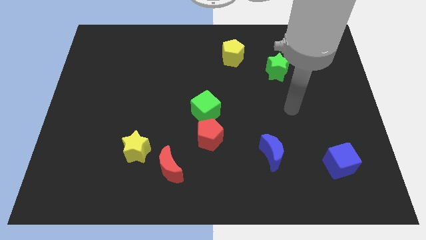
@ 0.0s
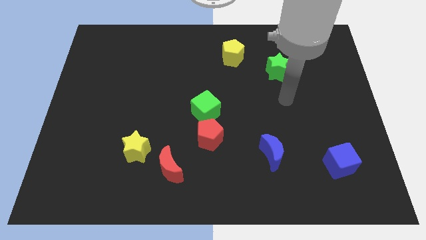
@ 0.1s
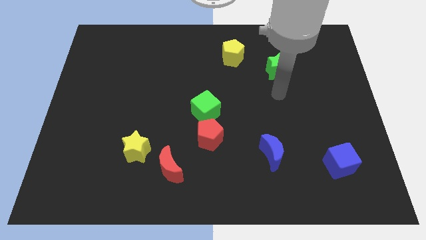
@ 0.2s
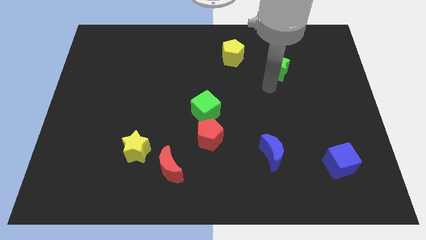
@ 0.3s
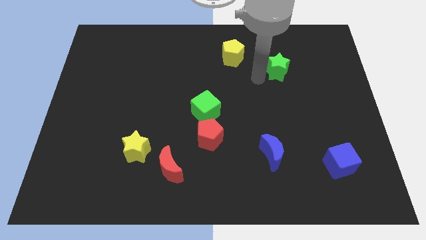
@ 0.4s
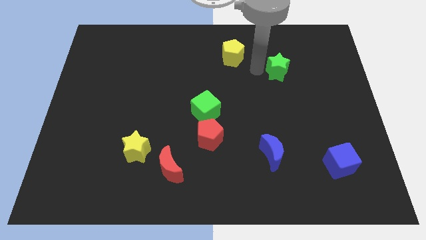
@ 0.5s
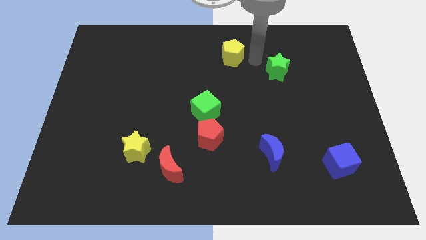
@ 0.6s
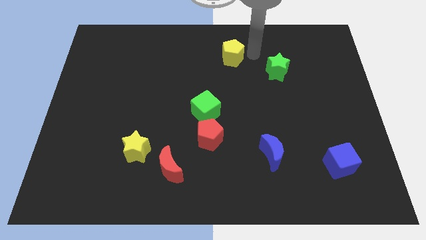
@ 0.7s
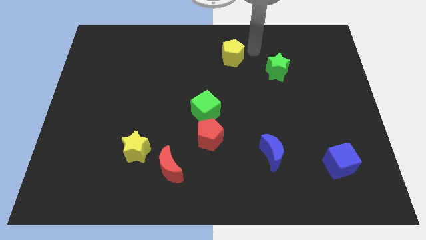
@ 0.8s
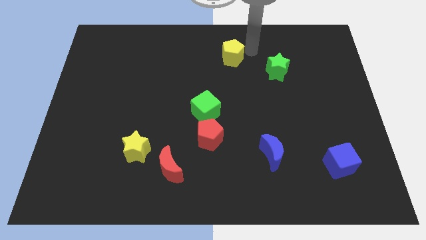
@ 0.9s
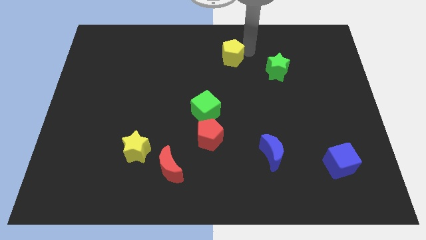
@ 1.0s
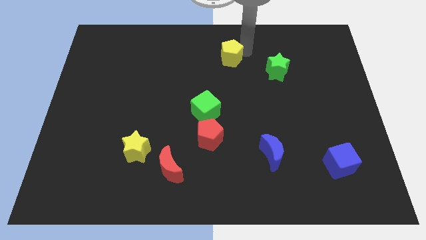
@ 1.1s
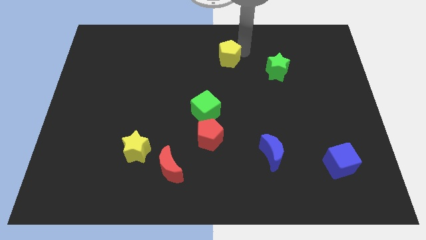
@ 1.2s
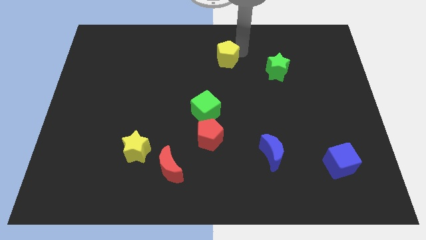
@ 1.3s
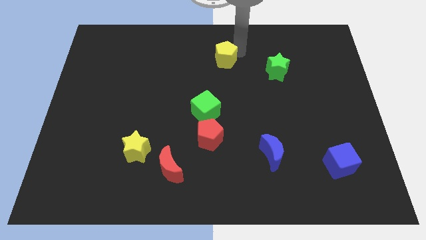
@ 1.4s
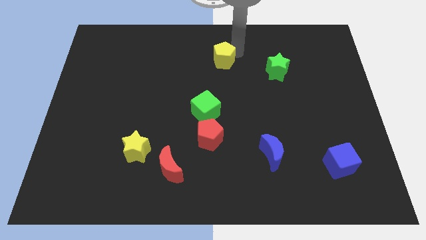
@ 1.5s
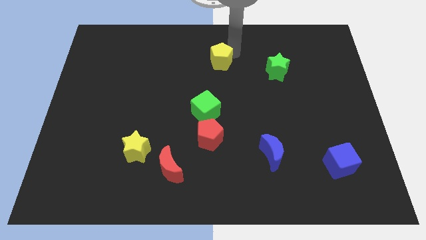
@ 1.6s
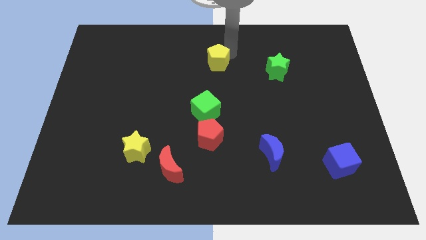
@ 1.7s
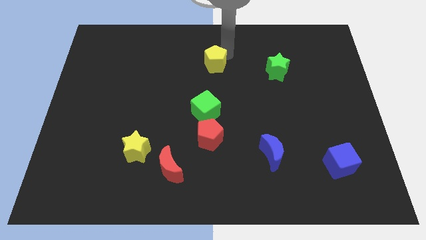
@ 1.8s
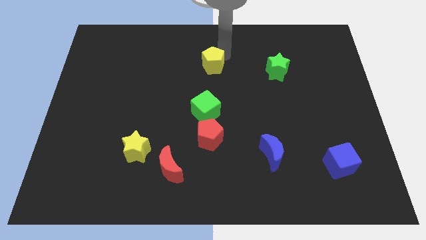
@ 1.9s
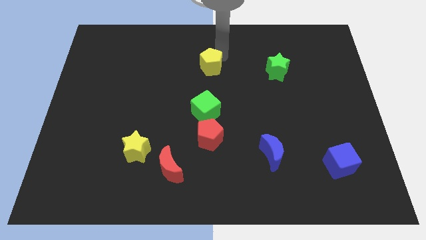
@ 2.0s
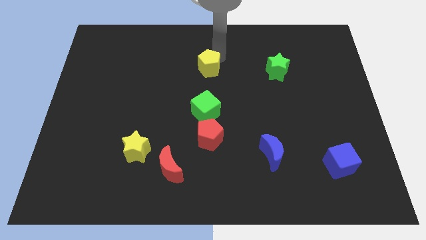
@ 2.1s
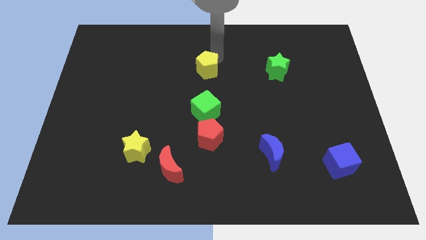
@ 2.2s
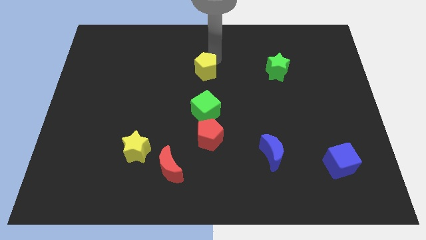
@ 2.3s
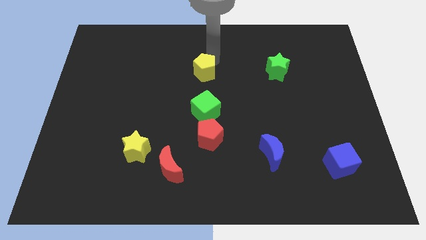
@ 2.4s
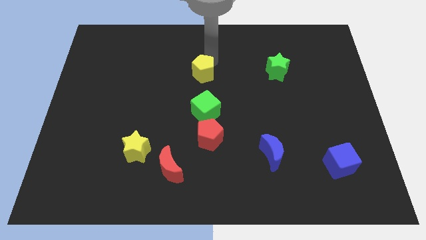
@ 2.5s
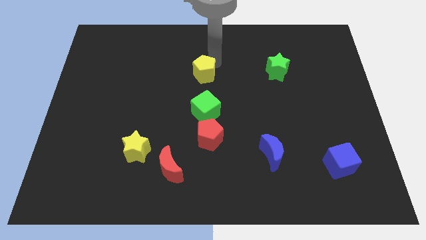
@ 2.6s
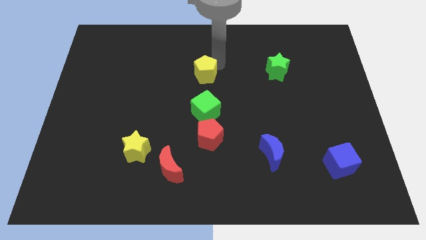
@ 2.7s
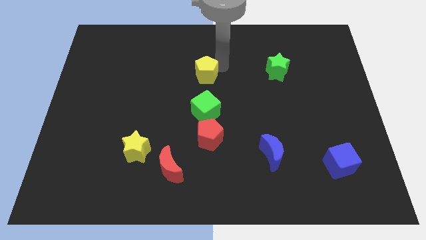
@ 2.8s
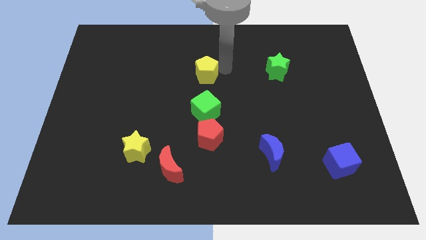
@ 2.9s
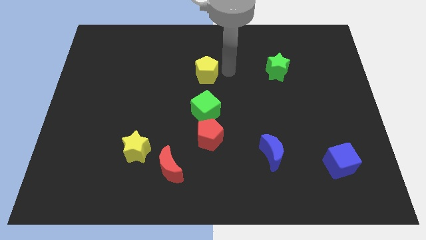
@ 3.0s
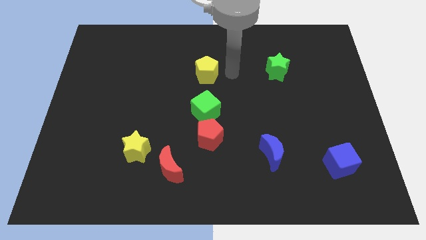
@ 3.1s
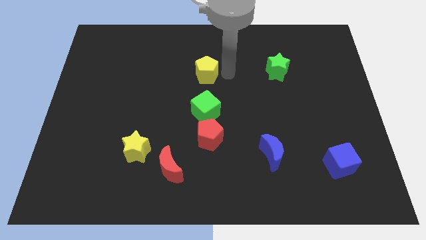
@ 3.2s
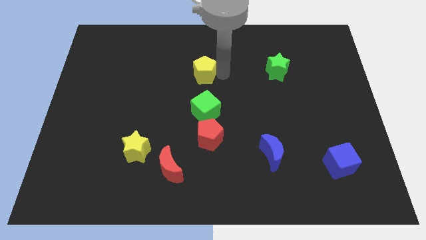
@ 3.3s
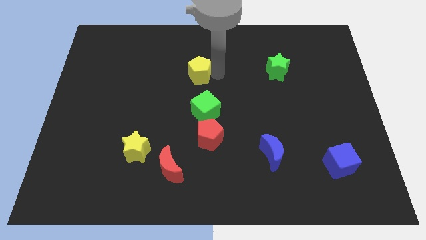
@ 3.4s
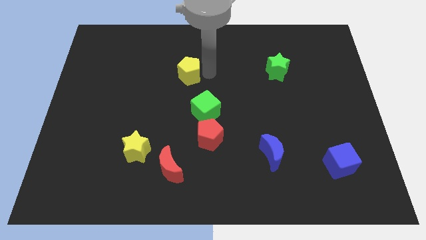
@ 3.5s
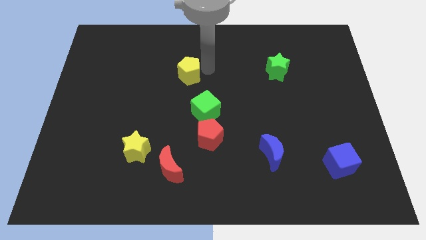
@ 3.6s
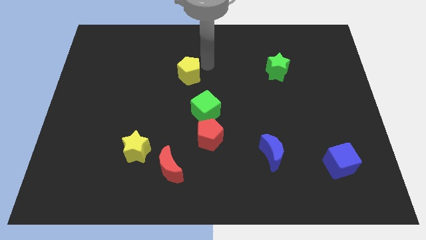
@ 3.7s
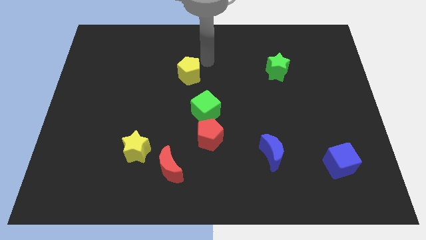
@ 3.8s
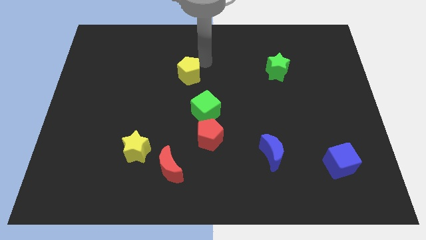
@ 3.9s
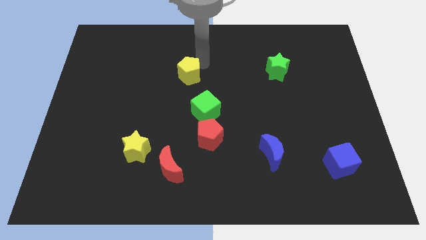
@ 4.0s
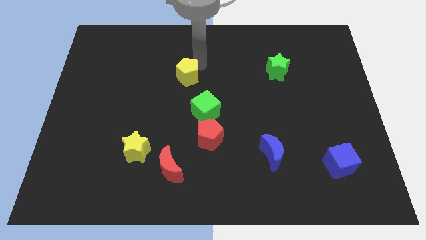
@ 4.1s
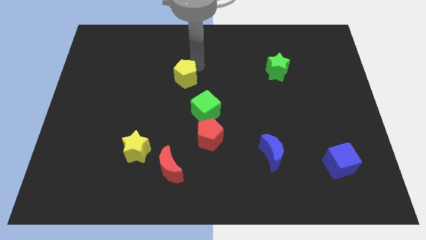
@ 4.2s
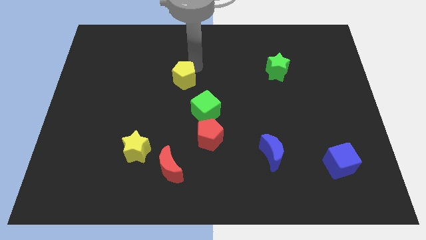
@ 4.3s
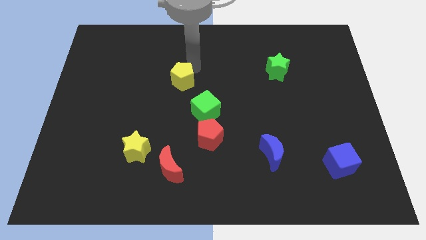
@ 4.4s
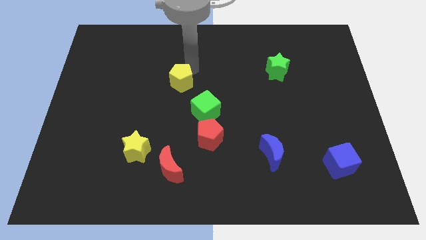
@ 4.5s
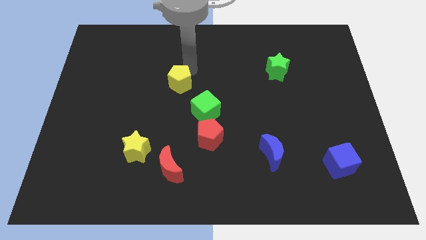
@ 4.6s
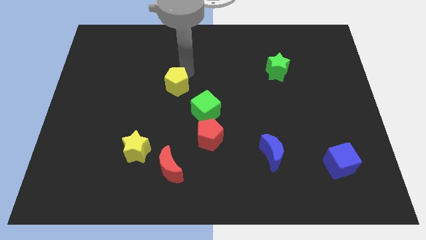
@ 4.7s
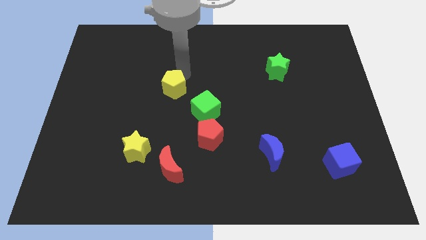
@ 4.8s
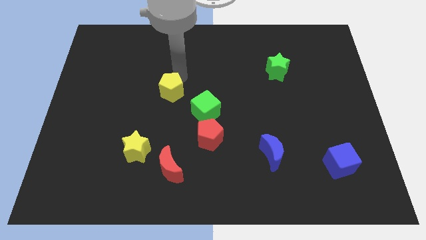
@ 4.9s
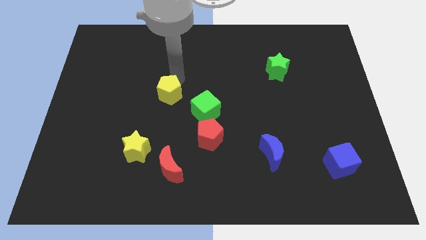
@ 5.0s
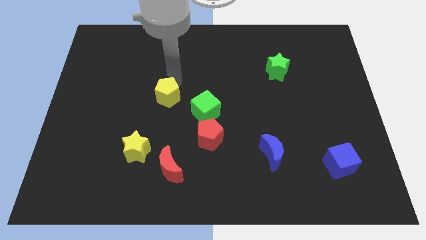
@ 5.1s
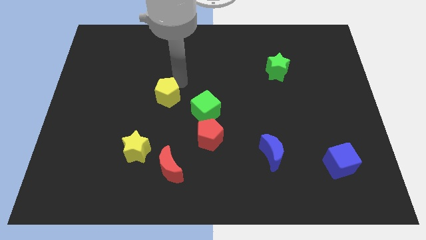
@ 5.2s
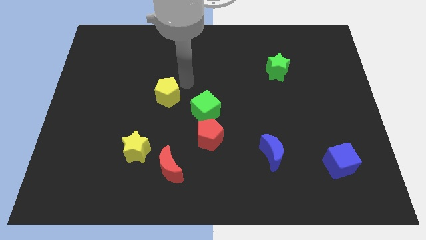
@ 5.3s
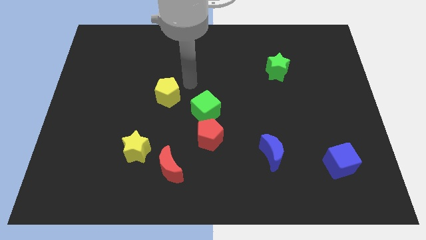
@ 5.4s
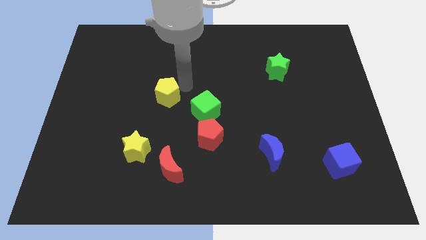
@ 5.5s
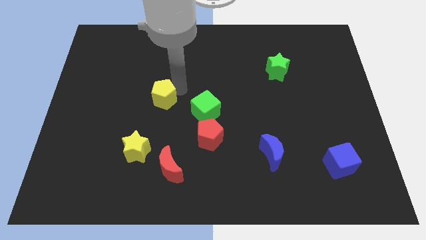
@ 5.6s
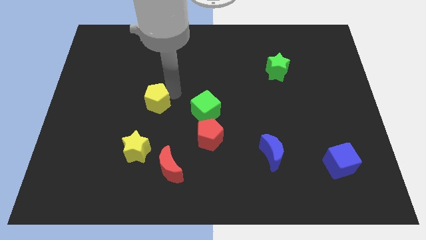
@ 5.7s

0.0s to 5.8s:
move the yellow pentagon to the top side of the yellow star

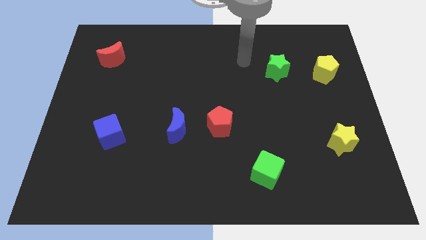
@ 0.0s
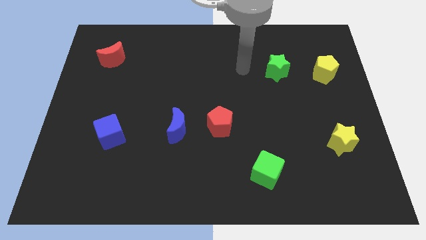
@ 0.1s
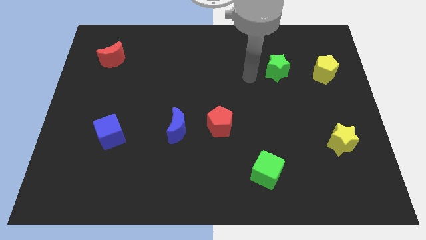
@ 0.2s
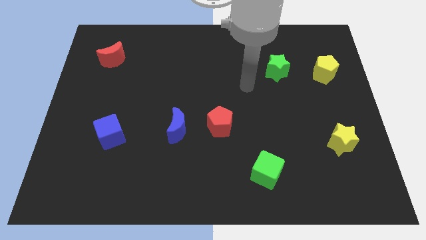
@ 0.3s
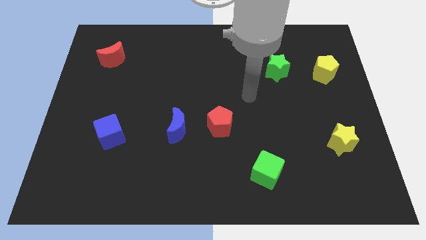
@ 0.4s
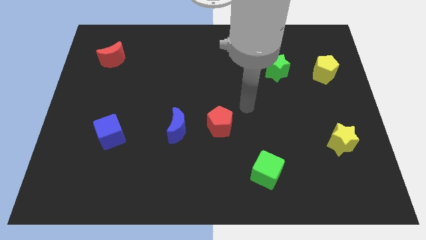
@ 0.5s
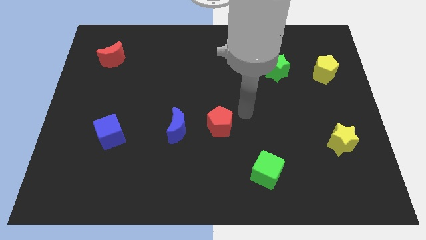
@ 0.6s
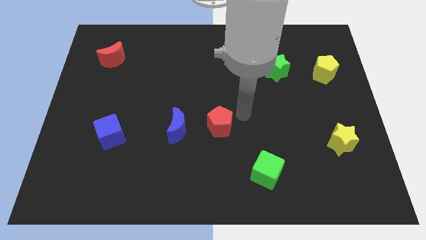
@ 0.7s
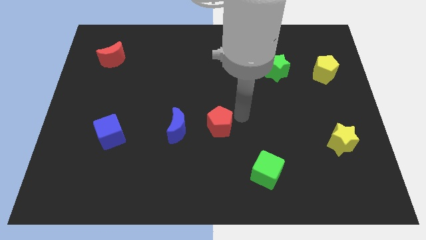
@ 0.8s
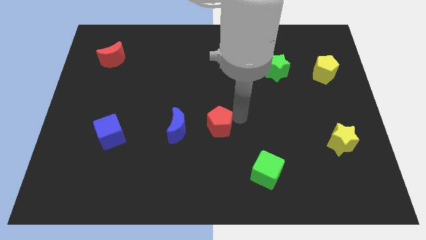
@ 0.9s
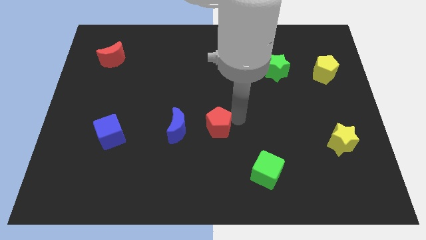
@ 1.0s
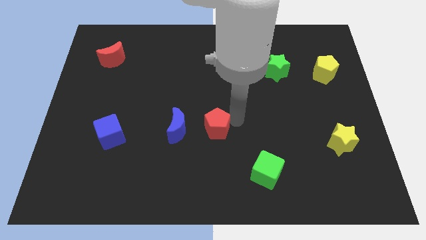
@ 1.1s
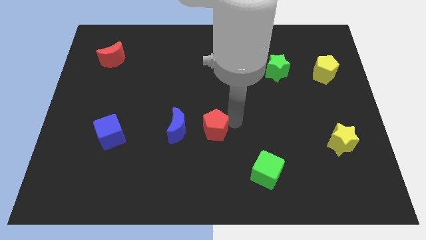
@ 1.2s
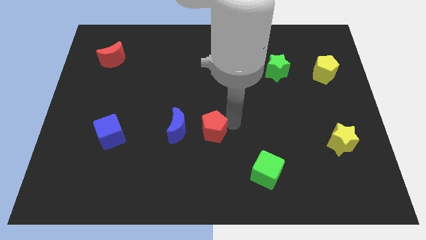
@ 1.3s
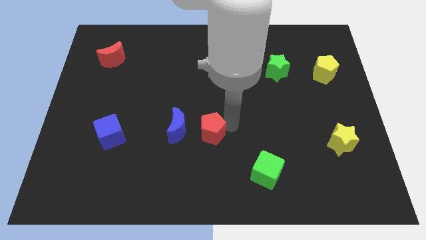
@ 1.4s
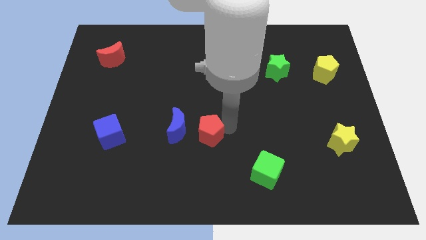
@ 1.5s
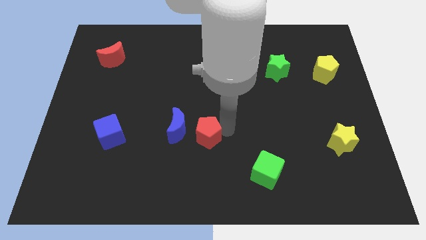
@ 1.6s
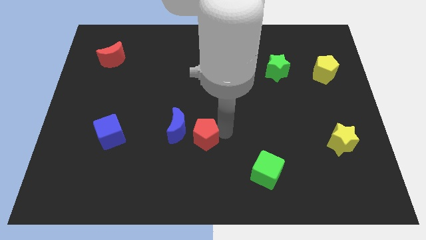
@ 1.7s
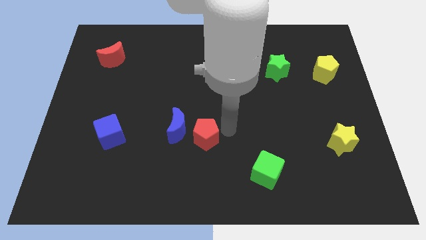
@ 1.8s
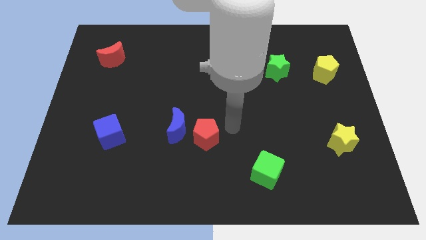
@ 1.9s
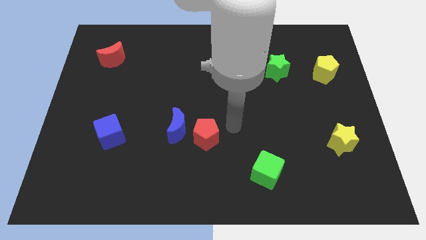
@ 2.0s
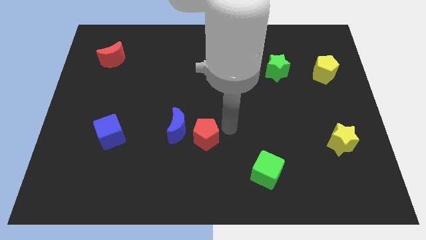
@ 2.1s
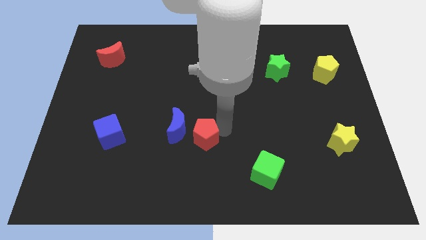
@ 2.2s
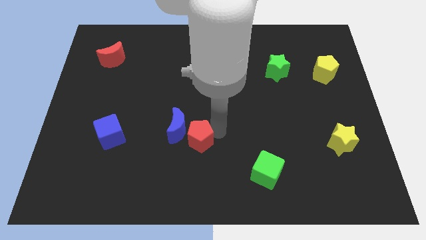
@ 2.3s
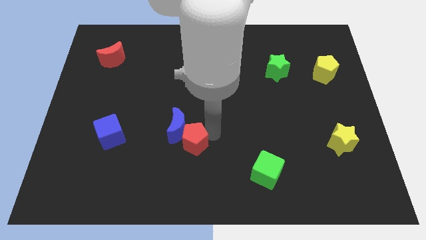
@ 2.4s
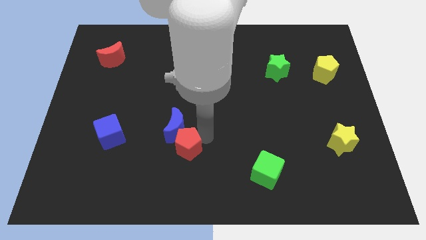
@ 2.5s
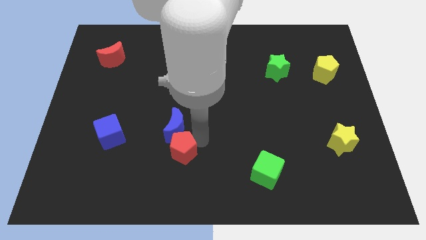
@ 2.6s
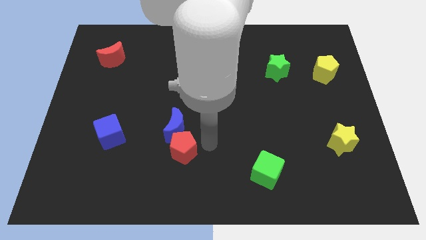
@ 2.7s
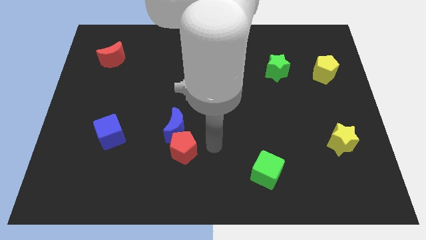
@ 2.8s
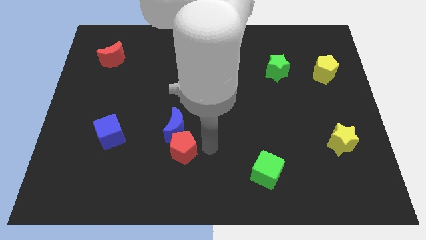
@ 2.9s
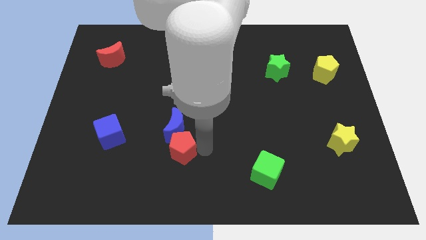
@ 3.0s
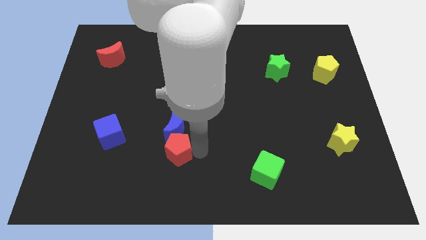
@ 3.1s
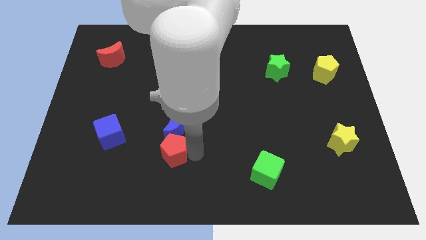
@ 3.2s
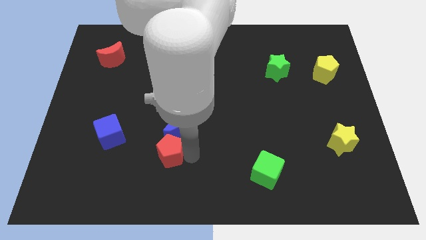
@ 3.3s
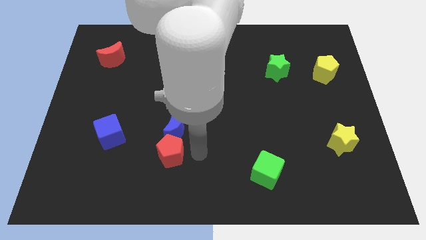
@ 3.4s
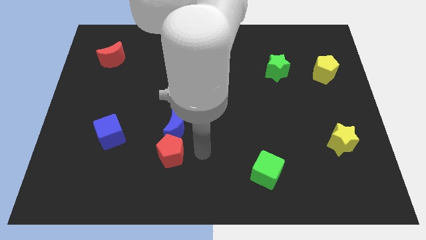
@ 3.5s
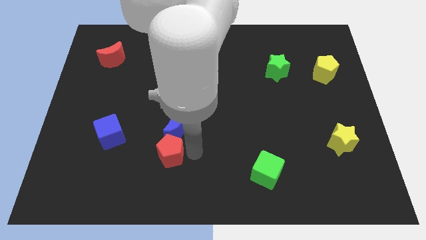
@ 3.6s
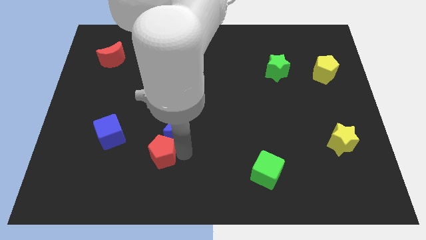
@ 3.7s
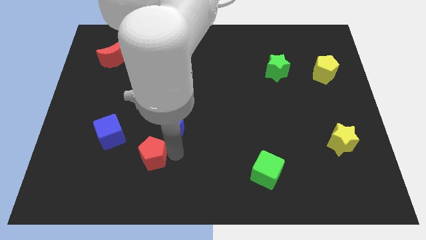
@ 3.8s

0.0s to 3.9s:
move the red pentagon diagonally down and to the right of the blue cube
